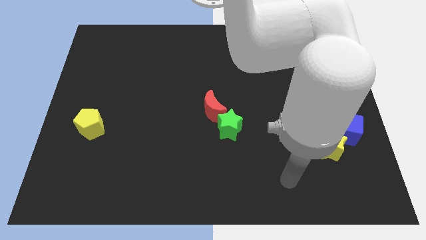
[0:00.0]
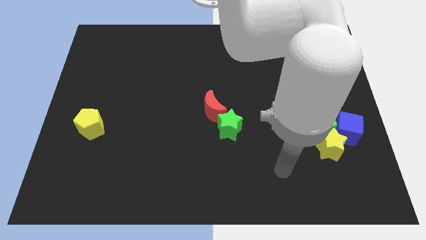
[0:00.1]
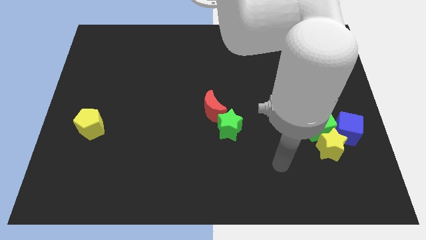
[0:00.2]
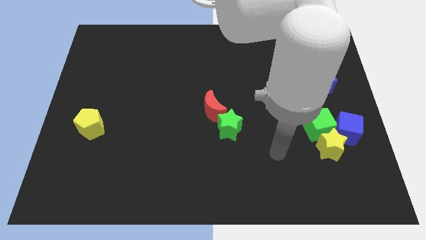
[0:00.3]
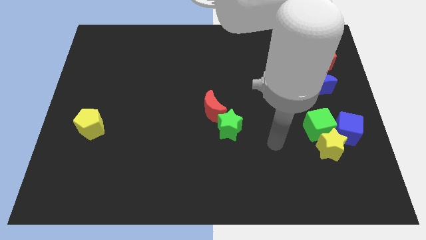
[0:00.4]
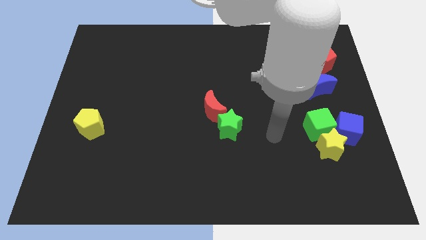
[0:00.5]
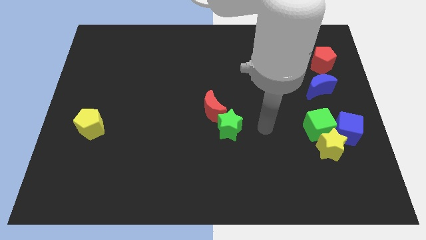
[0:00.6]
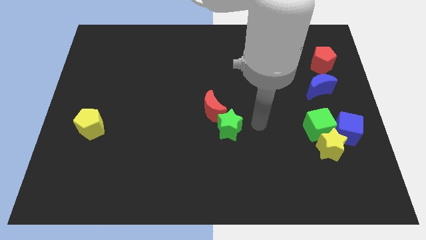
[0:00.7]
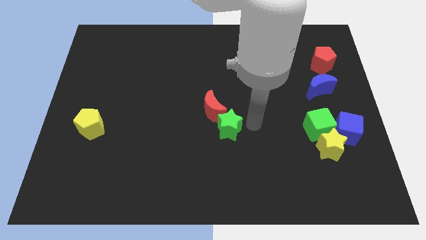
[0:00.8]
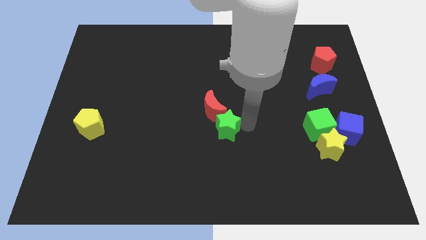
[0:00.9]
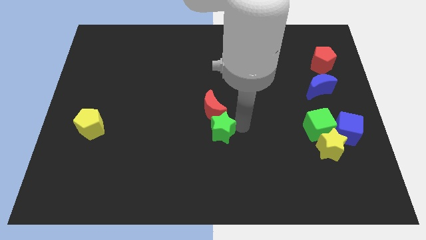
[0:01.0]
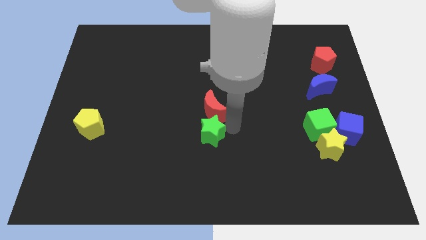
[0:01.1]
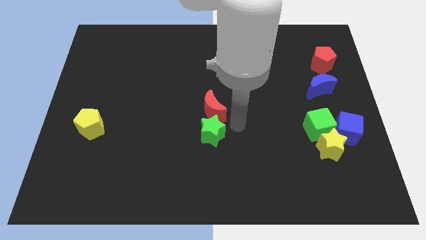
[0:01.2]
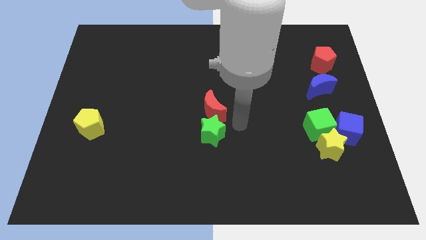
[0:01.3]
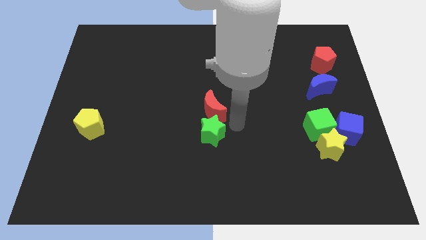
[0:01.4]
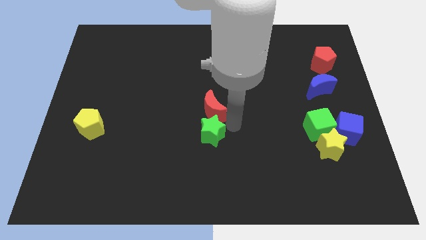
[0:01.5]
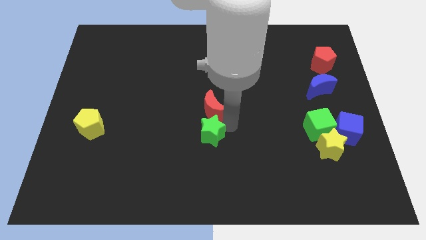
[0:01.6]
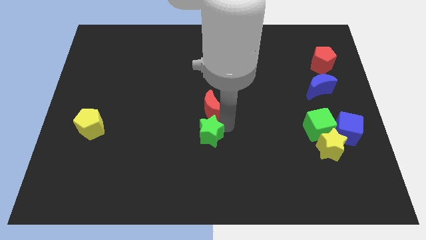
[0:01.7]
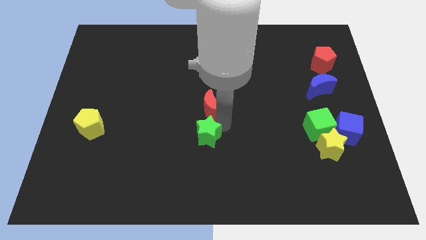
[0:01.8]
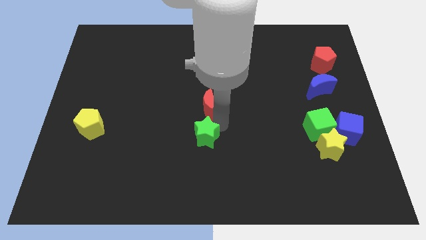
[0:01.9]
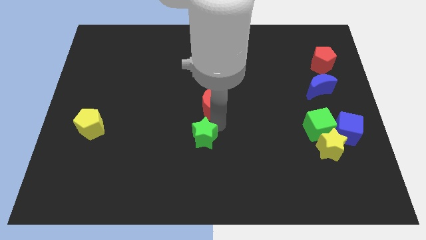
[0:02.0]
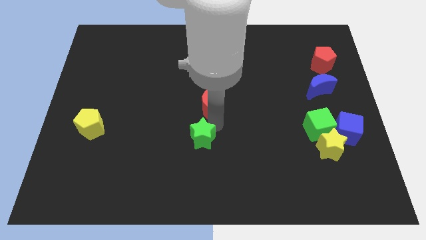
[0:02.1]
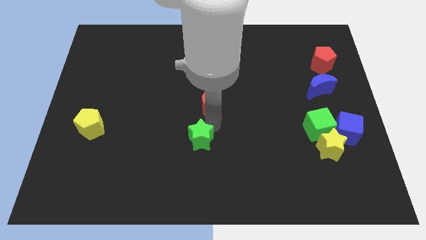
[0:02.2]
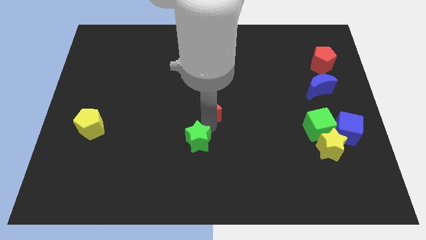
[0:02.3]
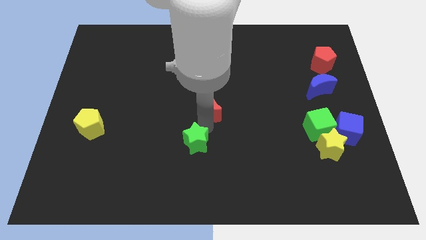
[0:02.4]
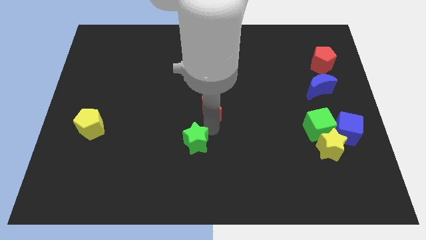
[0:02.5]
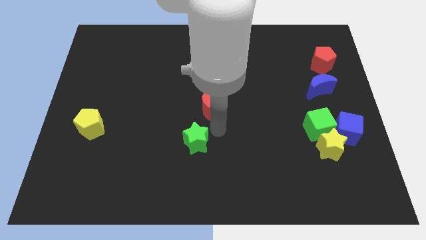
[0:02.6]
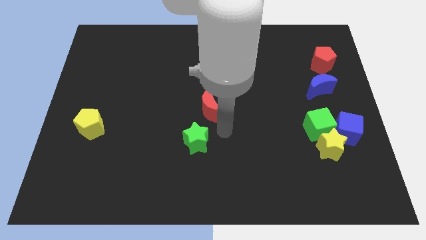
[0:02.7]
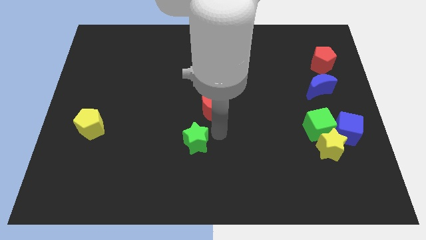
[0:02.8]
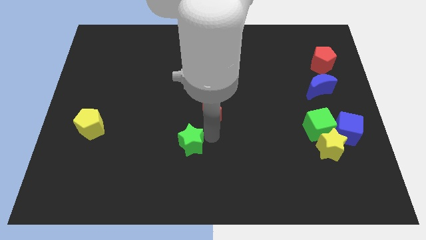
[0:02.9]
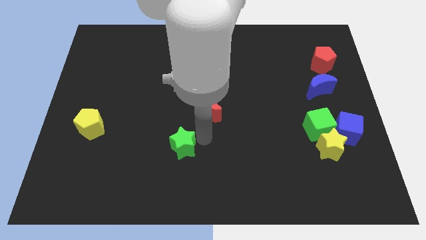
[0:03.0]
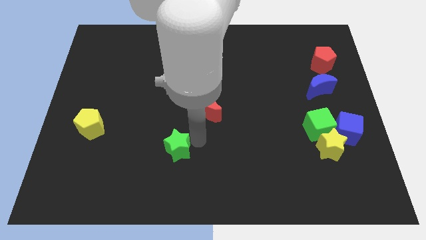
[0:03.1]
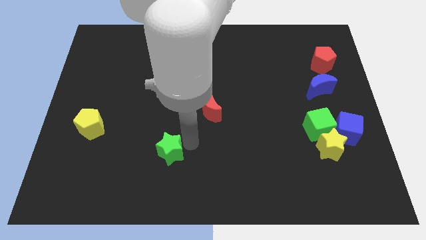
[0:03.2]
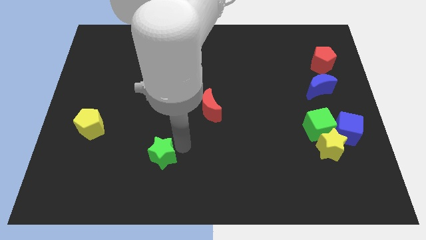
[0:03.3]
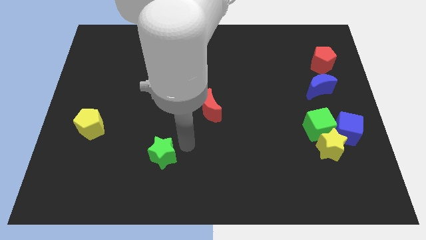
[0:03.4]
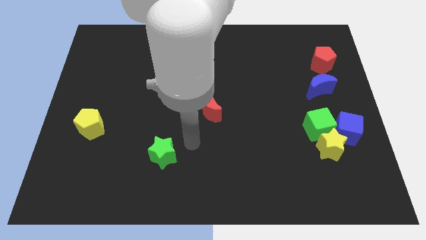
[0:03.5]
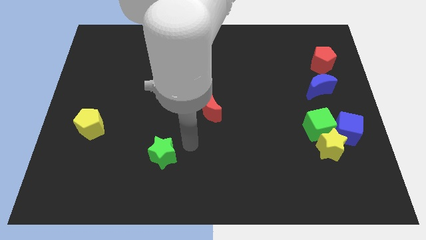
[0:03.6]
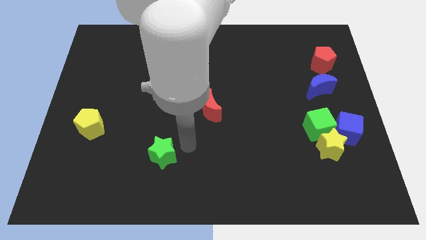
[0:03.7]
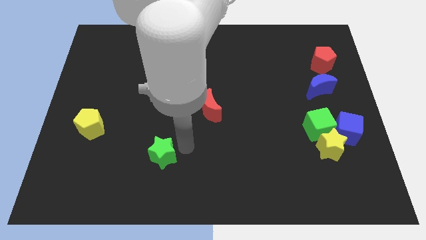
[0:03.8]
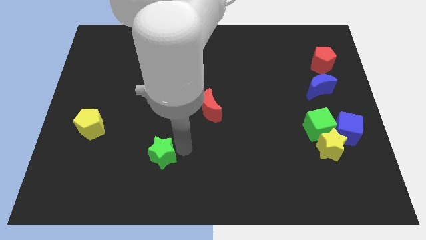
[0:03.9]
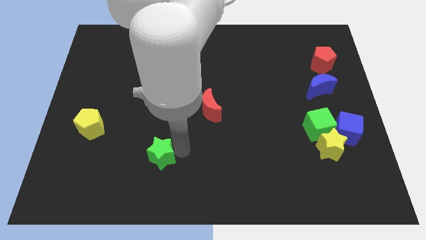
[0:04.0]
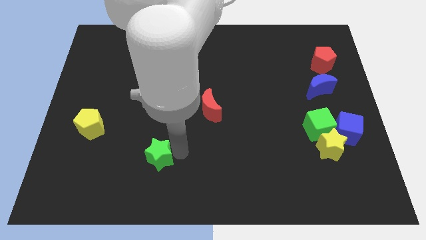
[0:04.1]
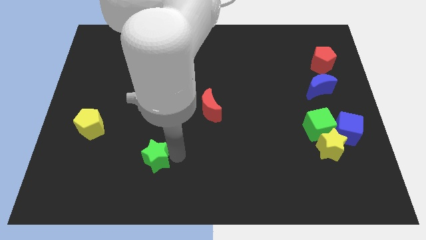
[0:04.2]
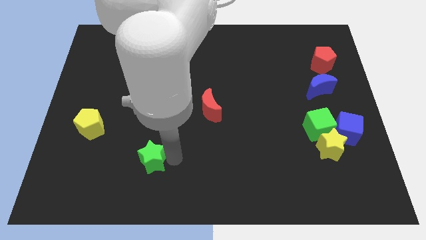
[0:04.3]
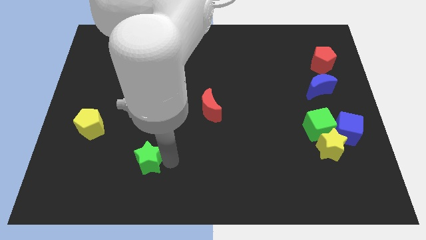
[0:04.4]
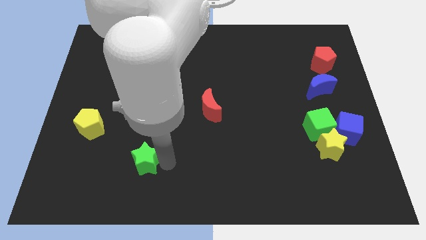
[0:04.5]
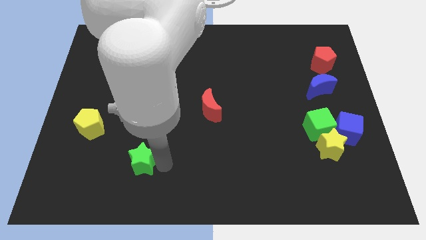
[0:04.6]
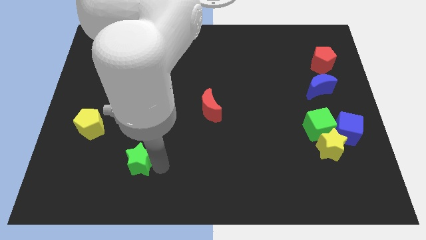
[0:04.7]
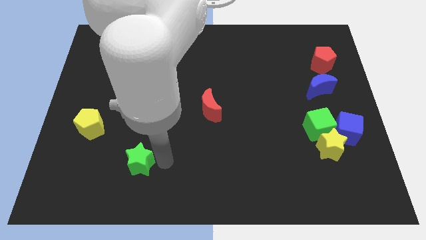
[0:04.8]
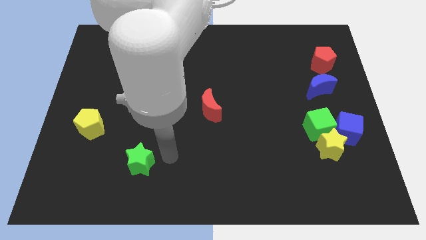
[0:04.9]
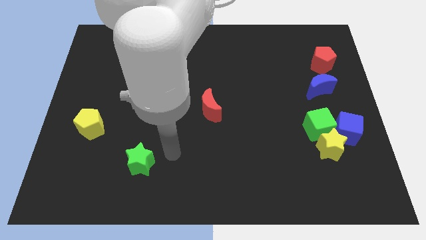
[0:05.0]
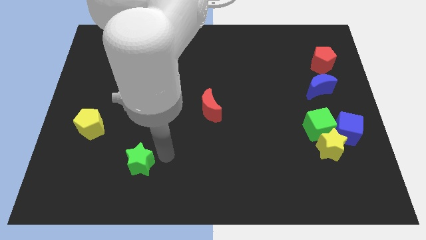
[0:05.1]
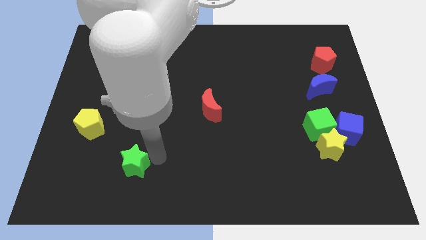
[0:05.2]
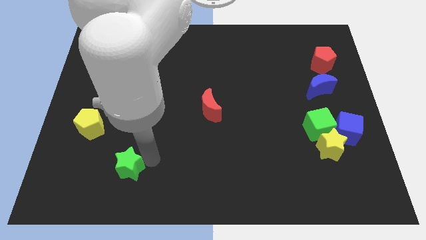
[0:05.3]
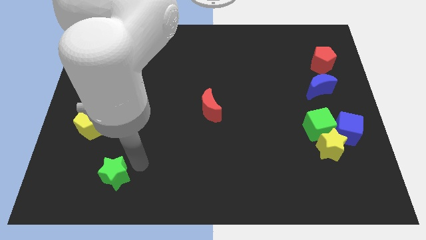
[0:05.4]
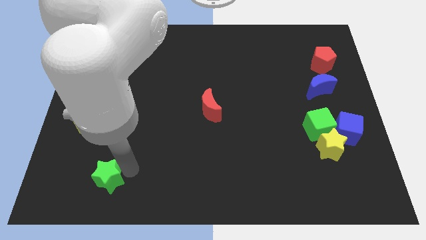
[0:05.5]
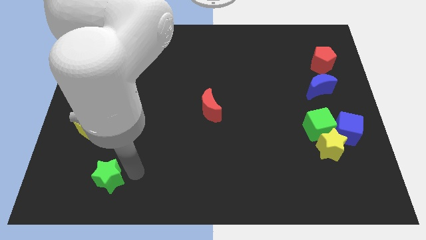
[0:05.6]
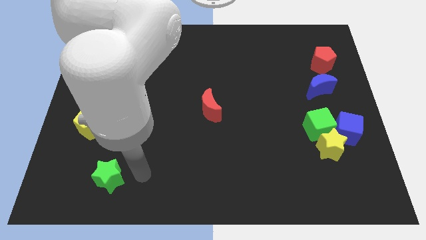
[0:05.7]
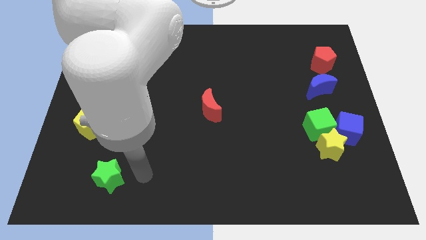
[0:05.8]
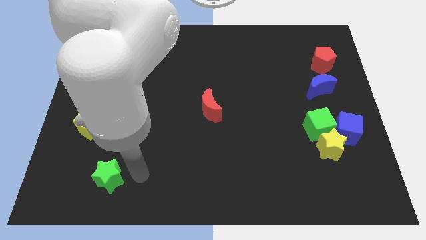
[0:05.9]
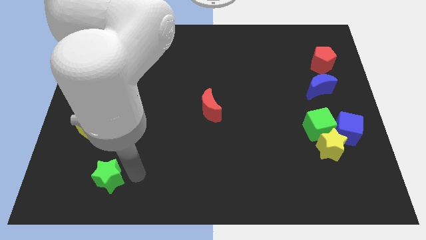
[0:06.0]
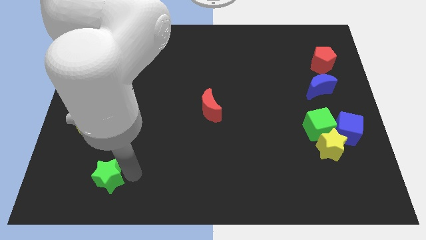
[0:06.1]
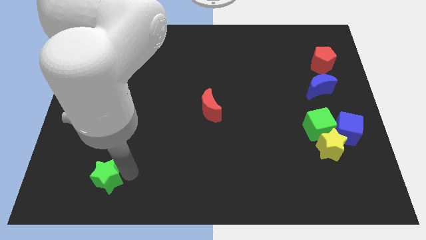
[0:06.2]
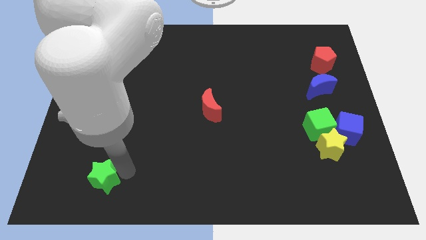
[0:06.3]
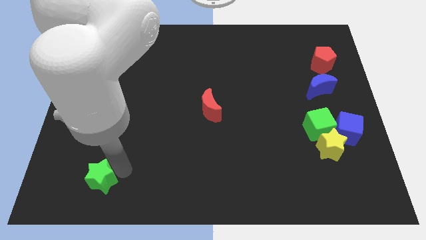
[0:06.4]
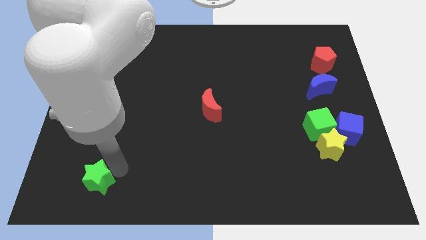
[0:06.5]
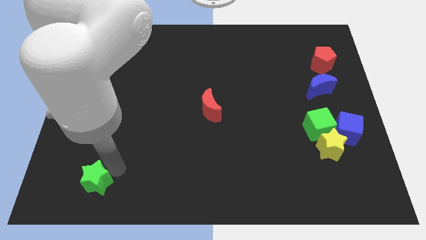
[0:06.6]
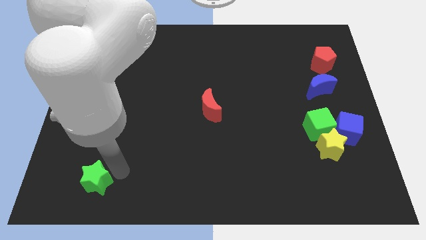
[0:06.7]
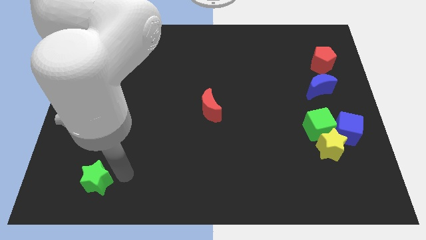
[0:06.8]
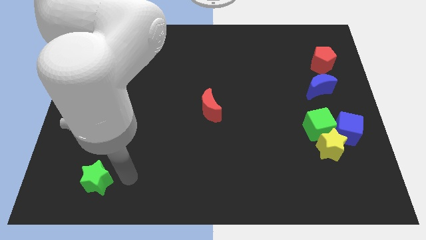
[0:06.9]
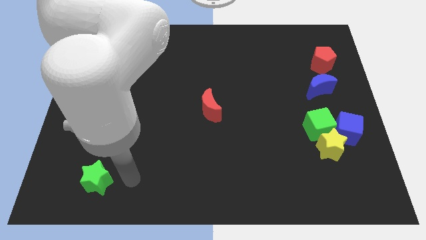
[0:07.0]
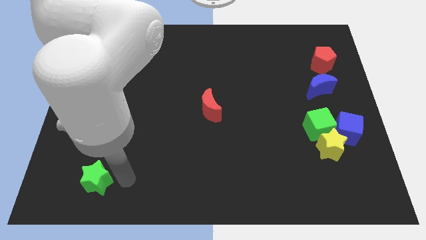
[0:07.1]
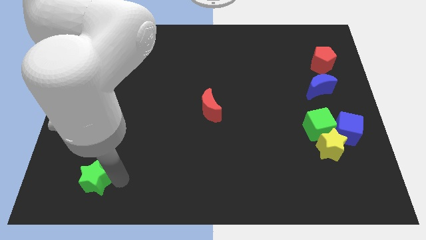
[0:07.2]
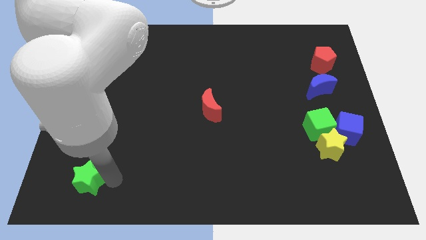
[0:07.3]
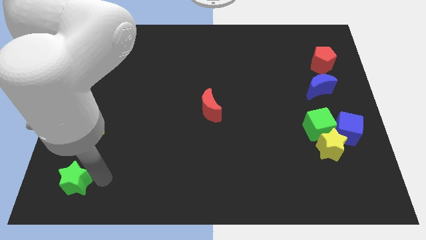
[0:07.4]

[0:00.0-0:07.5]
slide the green star to the bottom left corner

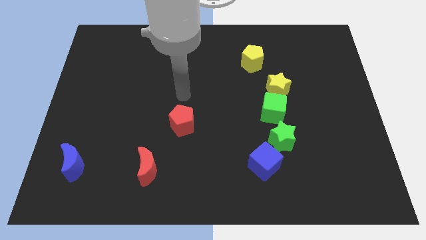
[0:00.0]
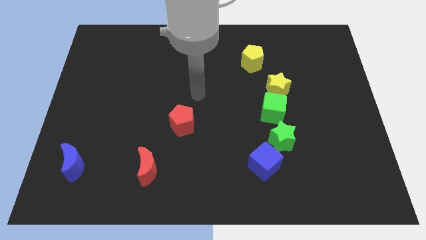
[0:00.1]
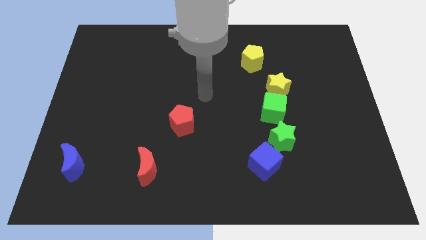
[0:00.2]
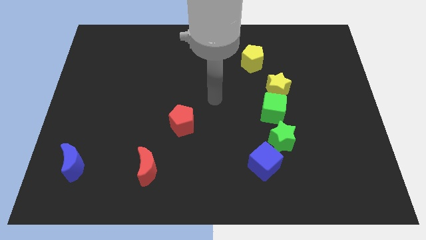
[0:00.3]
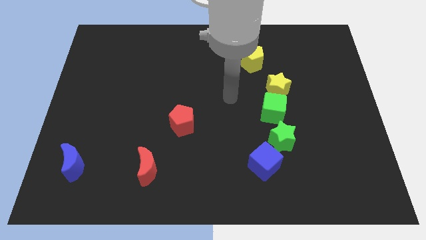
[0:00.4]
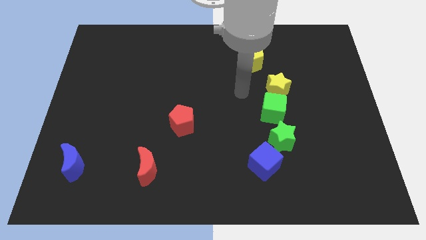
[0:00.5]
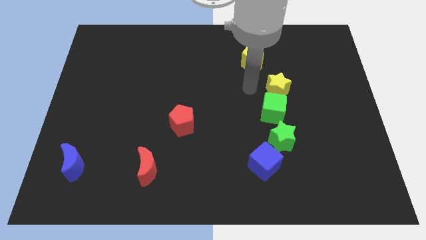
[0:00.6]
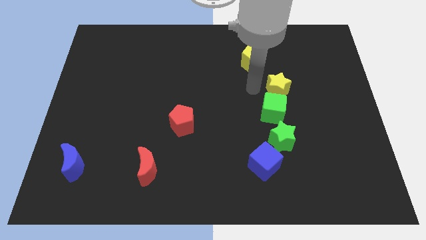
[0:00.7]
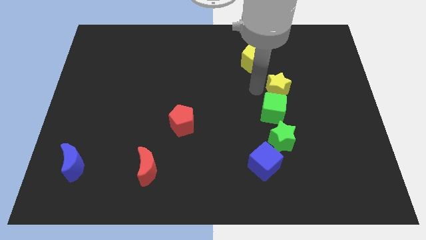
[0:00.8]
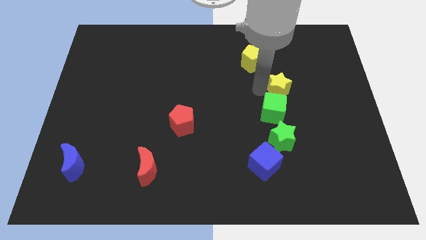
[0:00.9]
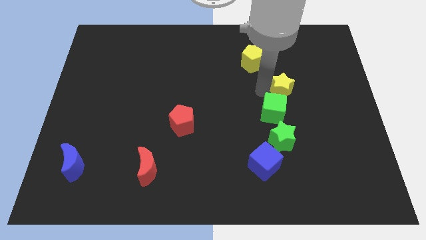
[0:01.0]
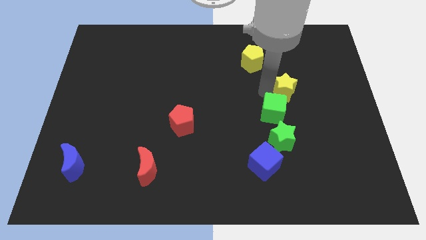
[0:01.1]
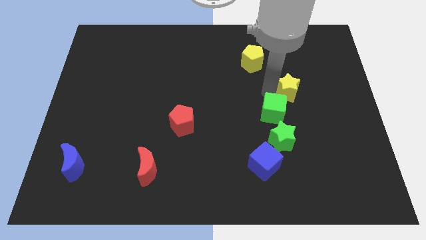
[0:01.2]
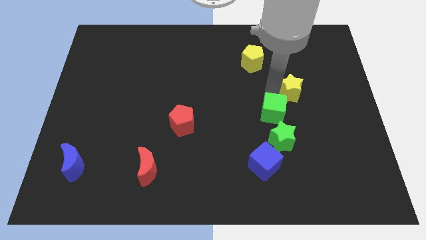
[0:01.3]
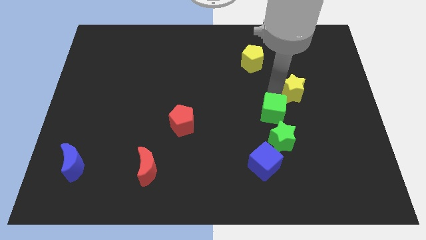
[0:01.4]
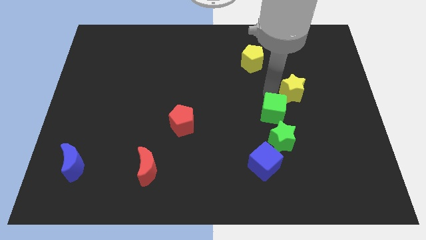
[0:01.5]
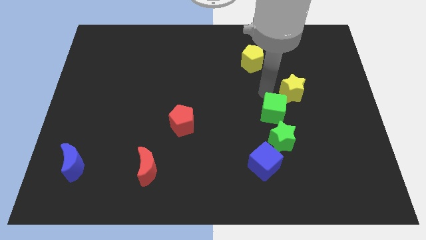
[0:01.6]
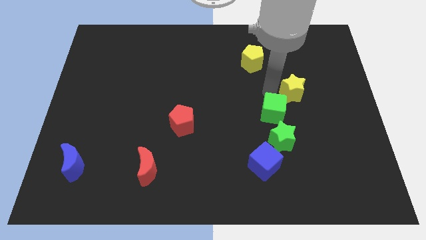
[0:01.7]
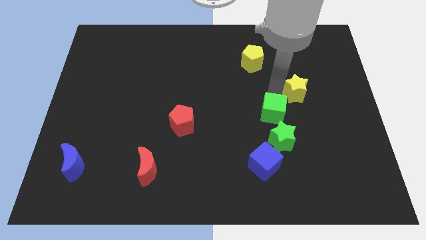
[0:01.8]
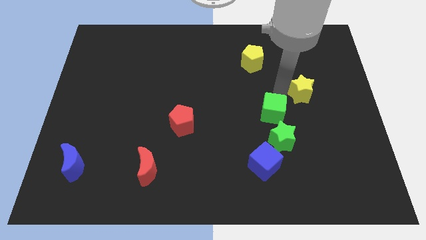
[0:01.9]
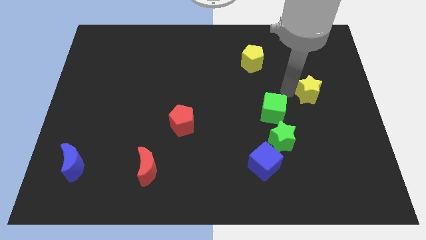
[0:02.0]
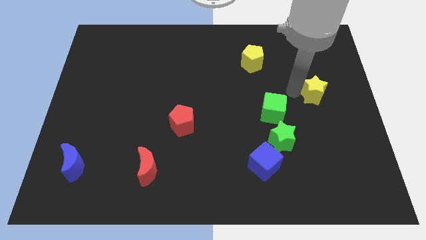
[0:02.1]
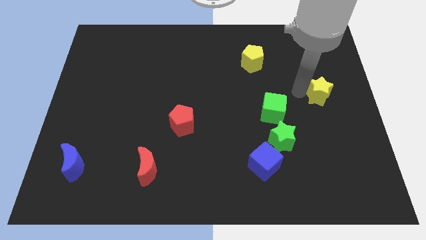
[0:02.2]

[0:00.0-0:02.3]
put the yellow star to the center right
